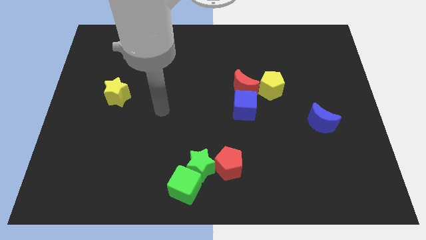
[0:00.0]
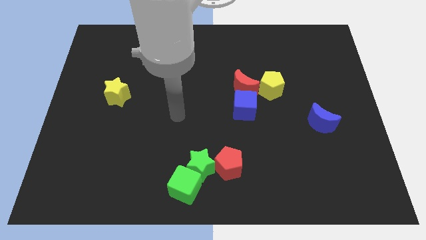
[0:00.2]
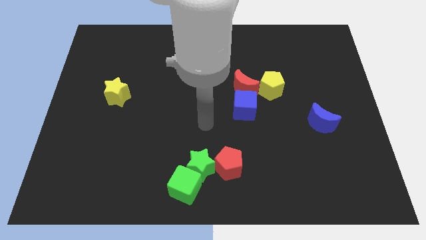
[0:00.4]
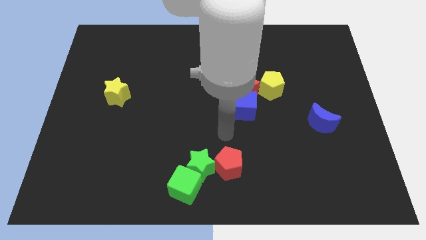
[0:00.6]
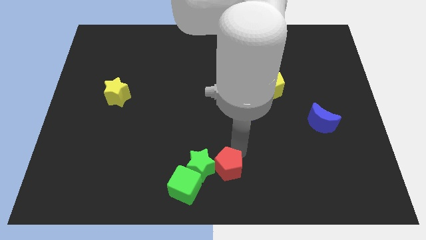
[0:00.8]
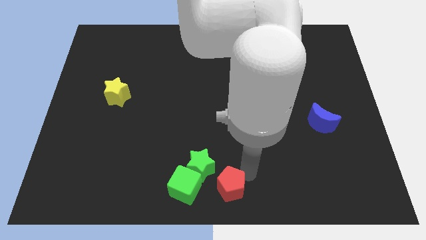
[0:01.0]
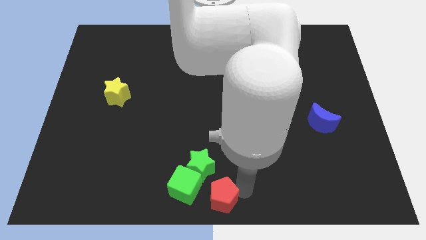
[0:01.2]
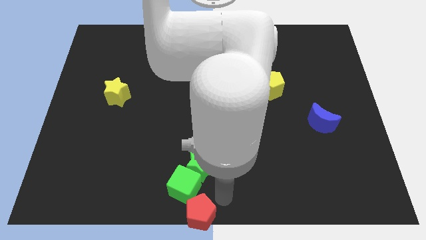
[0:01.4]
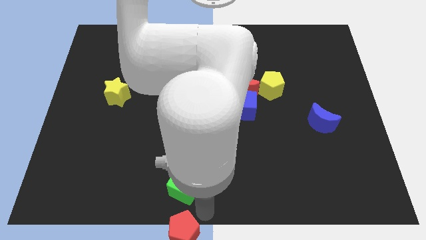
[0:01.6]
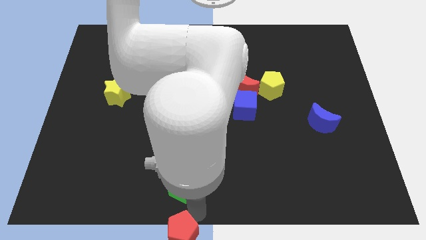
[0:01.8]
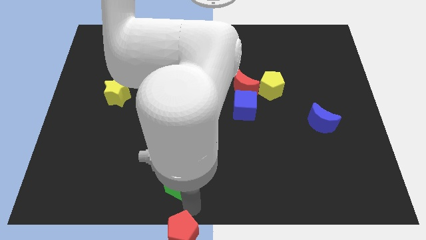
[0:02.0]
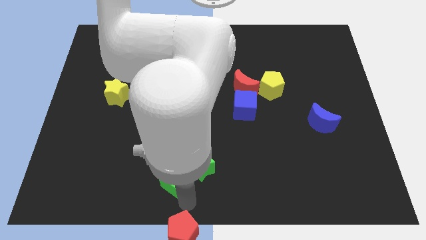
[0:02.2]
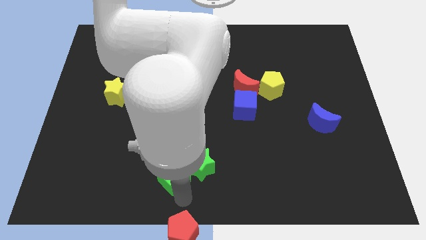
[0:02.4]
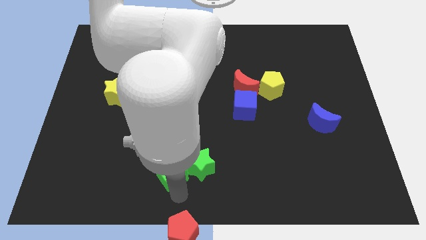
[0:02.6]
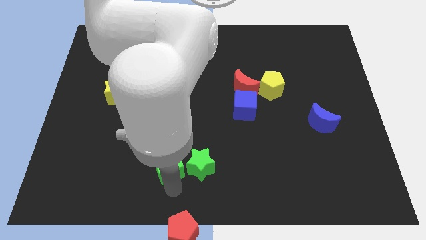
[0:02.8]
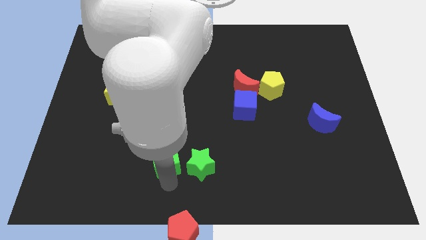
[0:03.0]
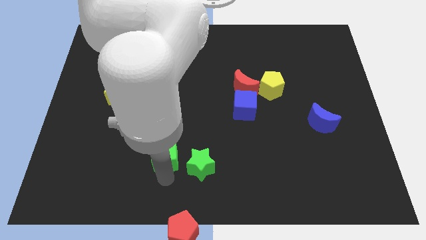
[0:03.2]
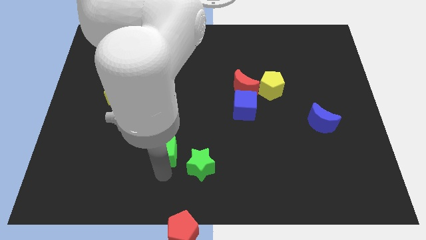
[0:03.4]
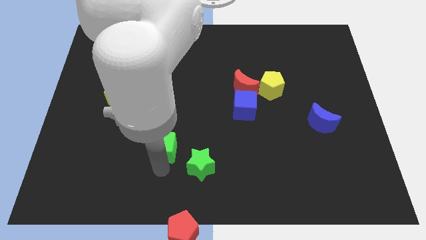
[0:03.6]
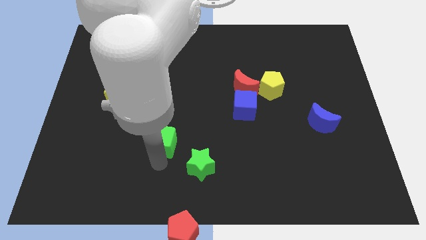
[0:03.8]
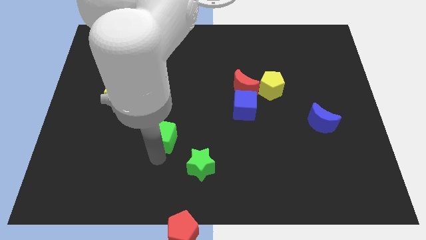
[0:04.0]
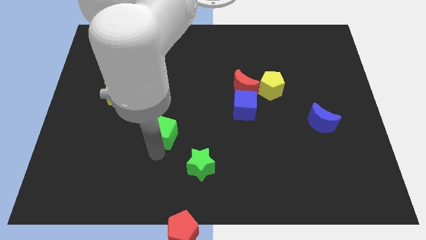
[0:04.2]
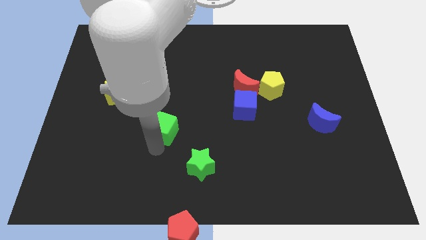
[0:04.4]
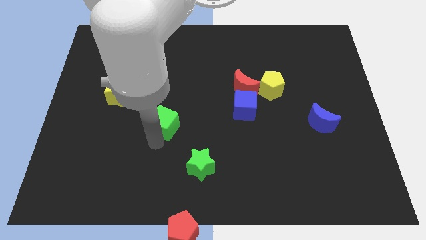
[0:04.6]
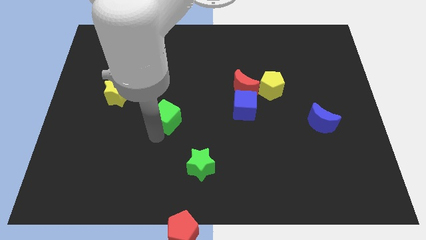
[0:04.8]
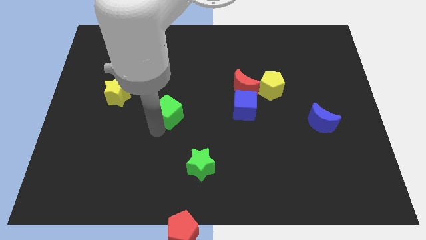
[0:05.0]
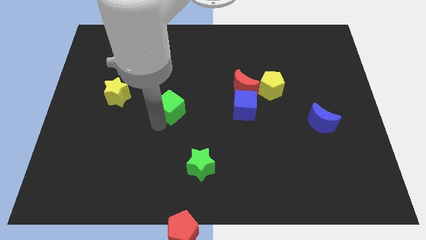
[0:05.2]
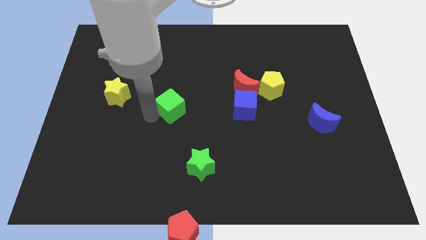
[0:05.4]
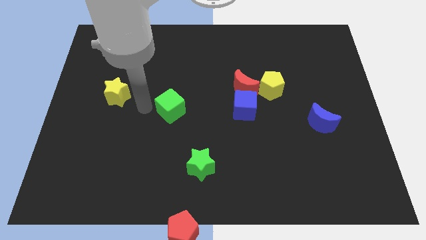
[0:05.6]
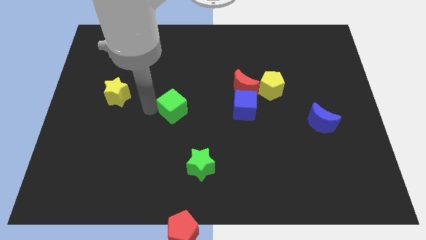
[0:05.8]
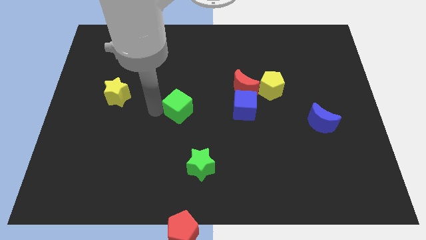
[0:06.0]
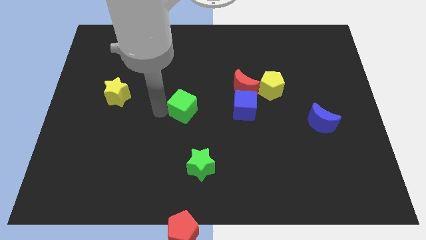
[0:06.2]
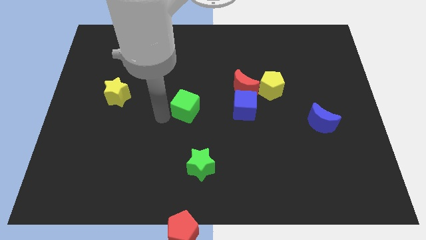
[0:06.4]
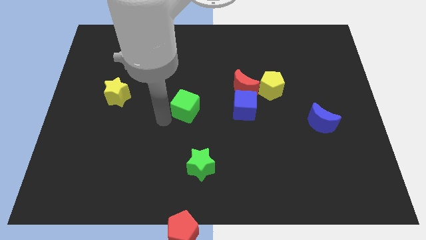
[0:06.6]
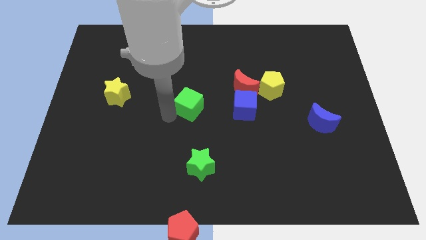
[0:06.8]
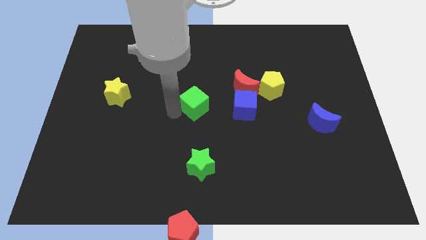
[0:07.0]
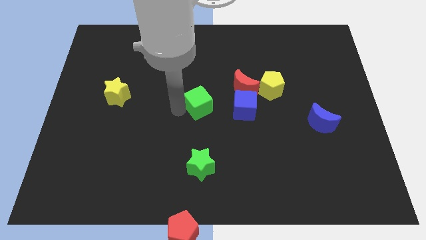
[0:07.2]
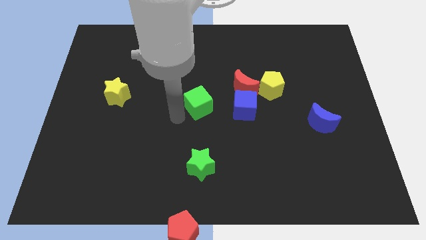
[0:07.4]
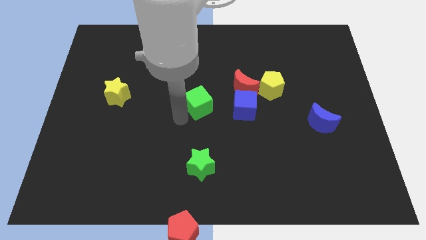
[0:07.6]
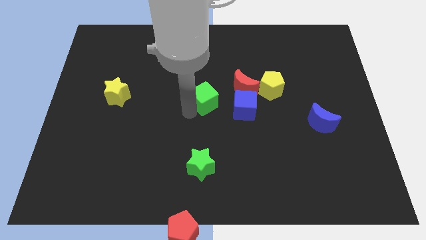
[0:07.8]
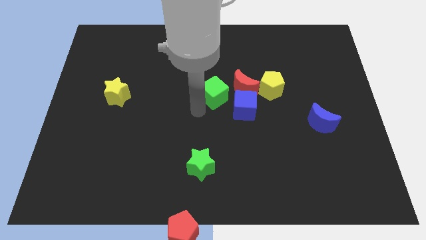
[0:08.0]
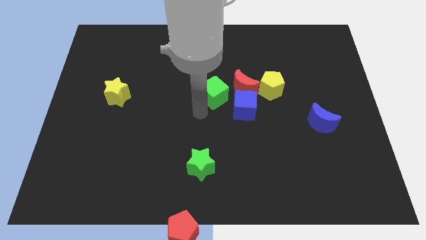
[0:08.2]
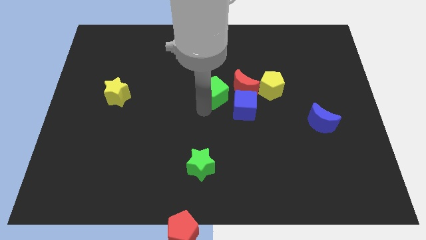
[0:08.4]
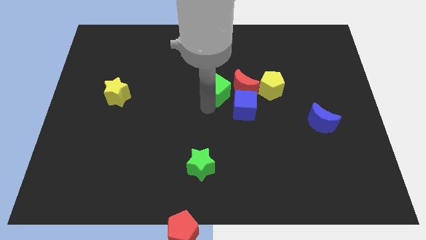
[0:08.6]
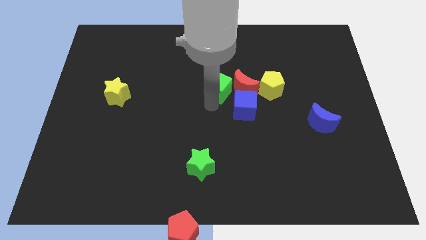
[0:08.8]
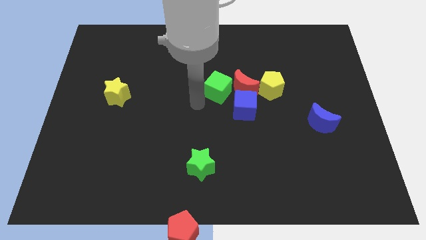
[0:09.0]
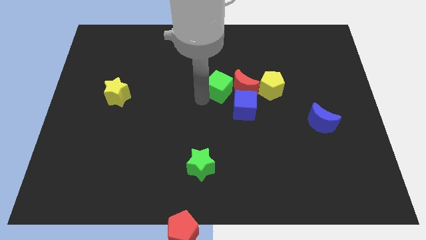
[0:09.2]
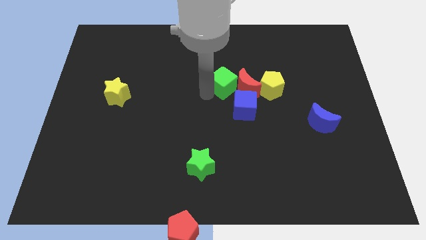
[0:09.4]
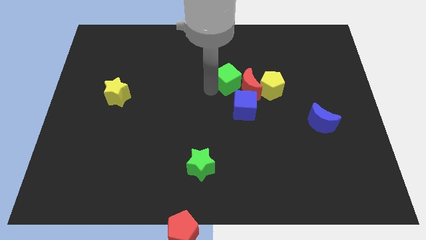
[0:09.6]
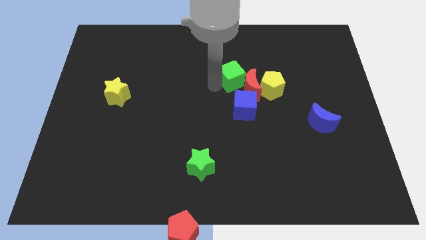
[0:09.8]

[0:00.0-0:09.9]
put the green cube to the top left of the yellow pentagon

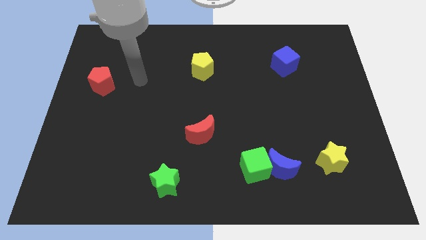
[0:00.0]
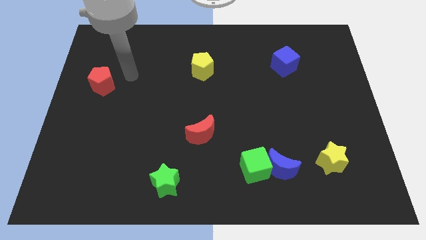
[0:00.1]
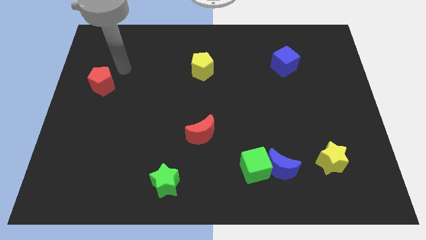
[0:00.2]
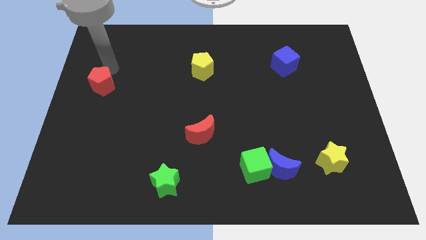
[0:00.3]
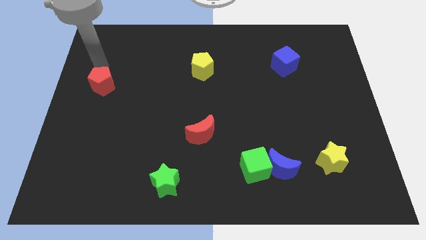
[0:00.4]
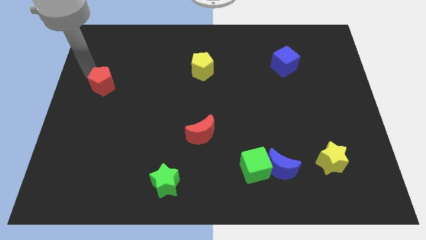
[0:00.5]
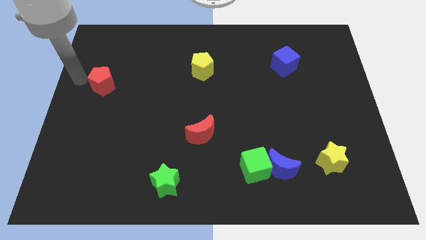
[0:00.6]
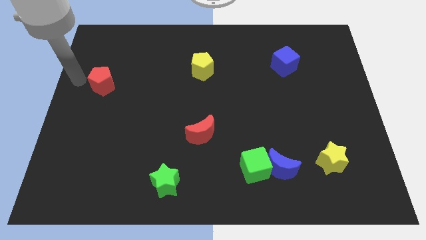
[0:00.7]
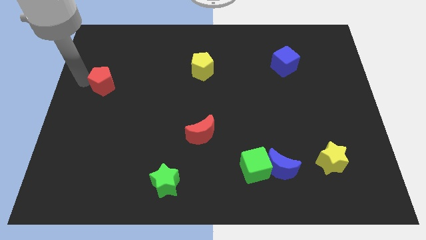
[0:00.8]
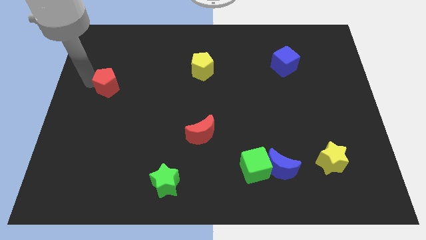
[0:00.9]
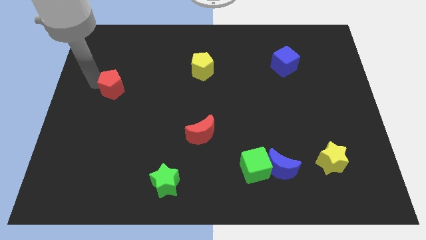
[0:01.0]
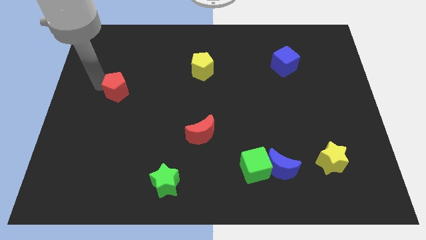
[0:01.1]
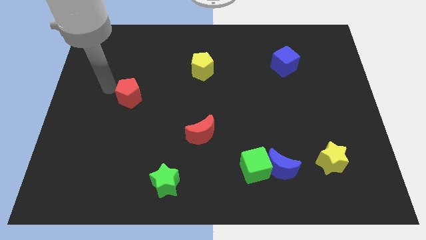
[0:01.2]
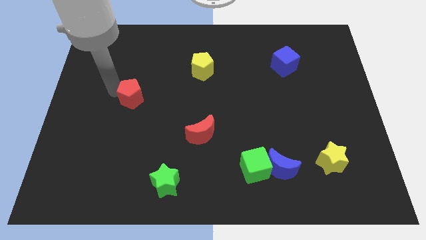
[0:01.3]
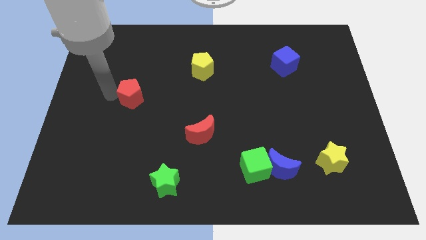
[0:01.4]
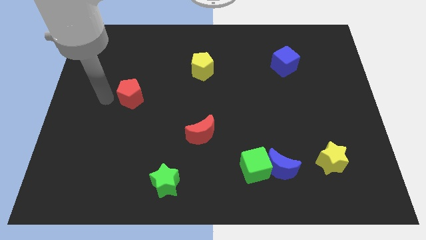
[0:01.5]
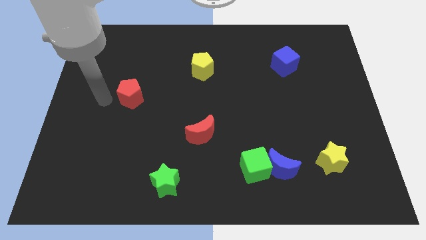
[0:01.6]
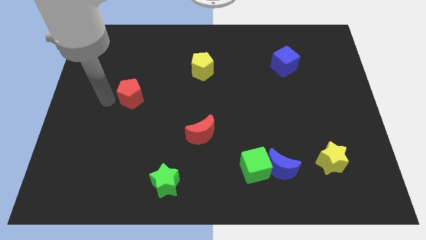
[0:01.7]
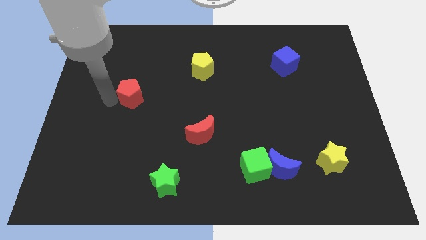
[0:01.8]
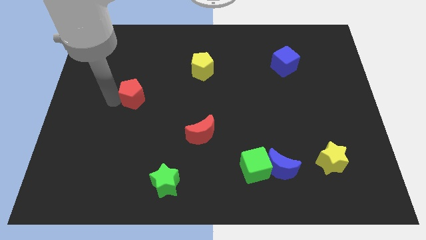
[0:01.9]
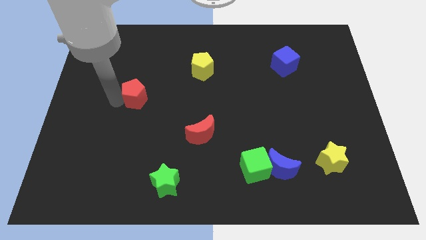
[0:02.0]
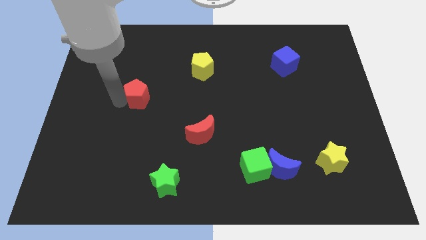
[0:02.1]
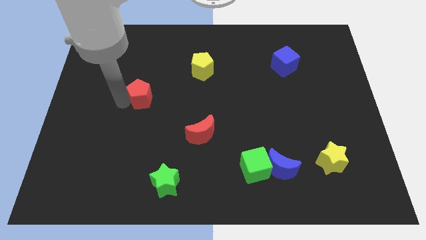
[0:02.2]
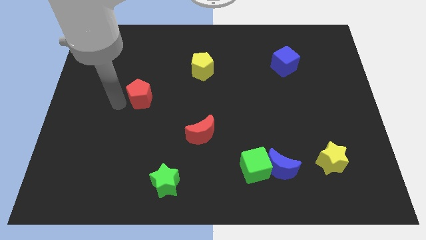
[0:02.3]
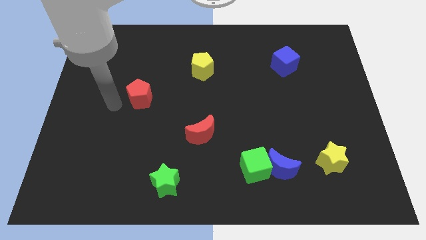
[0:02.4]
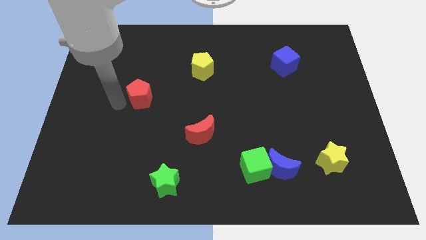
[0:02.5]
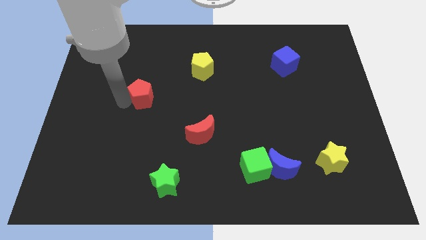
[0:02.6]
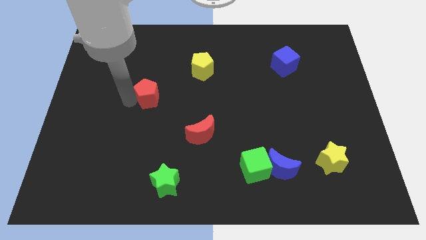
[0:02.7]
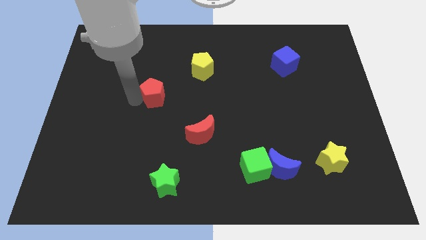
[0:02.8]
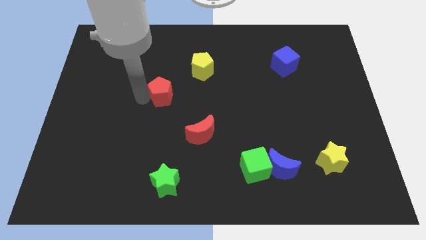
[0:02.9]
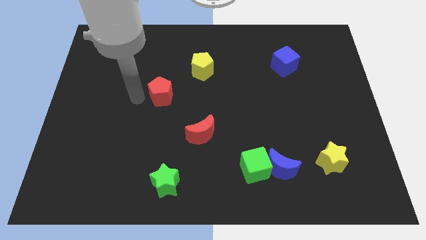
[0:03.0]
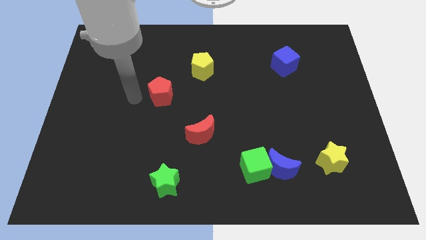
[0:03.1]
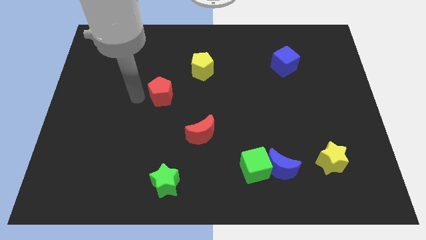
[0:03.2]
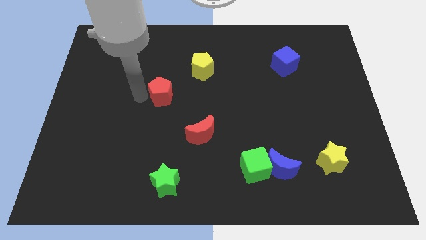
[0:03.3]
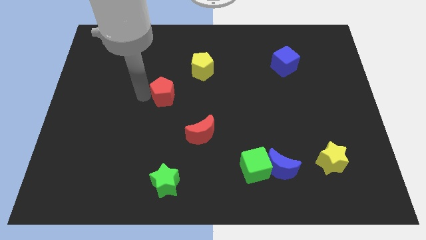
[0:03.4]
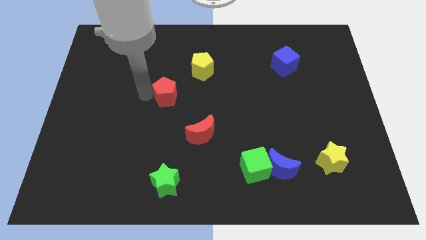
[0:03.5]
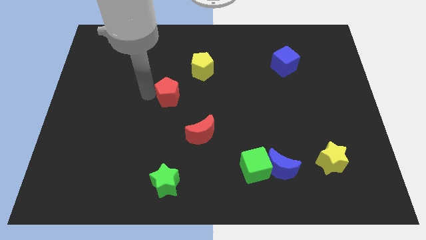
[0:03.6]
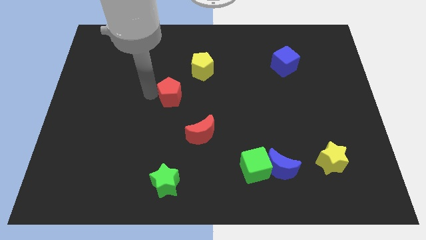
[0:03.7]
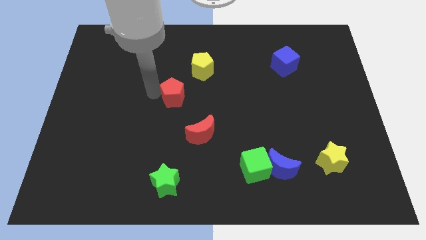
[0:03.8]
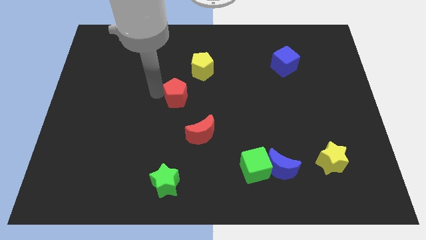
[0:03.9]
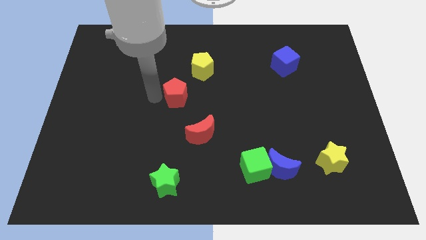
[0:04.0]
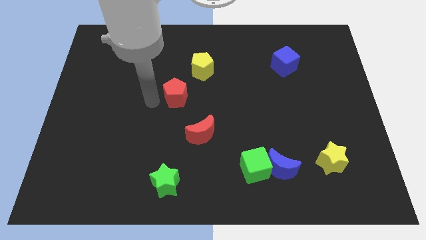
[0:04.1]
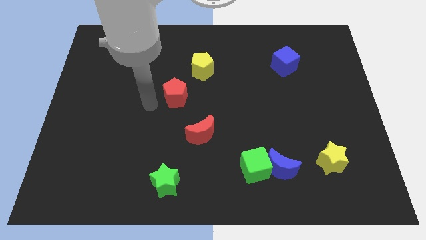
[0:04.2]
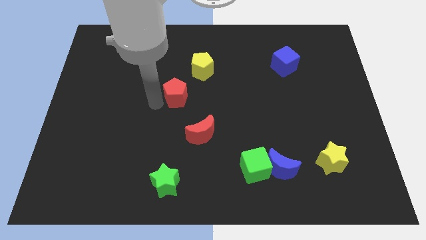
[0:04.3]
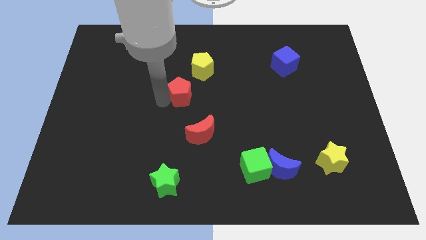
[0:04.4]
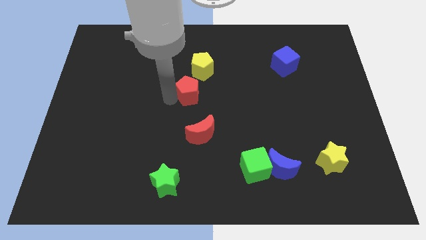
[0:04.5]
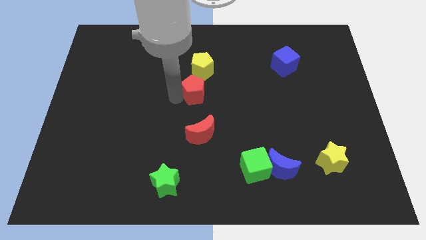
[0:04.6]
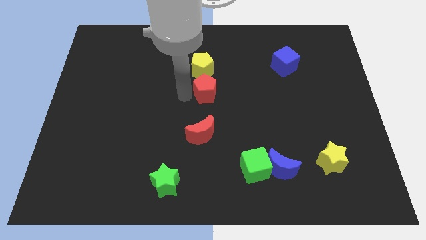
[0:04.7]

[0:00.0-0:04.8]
push the red pentagon to the bottom right side of the yellow pentagon
